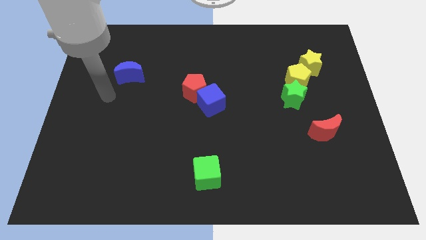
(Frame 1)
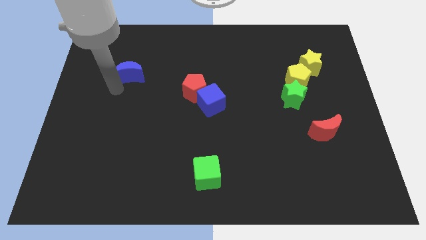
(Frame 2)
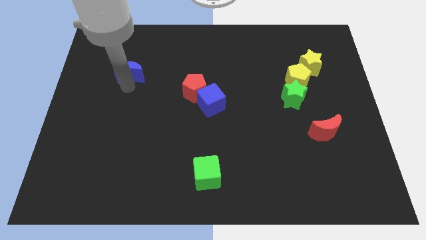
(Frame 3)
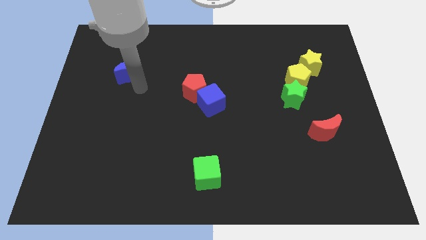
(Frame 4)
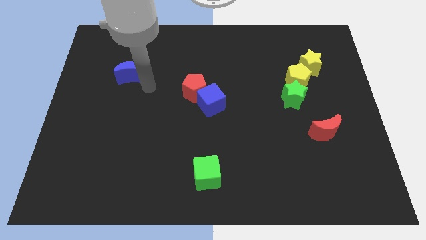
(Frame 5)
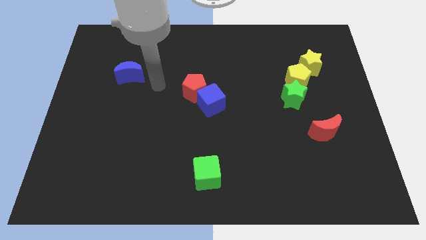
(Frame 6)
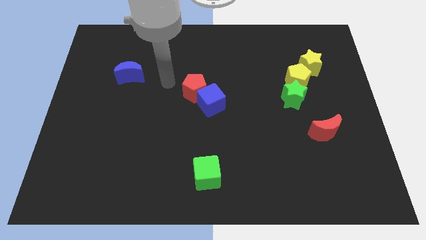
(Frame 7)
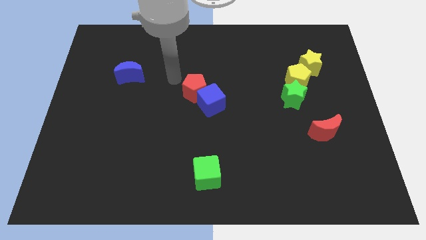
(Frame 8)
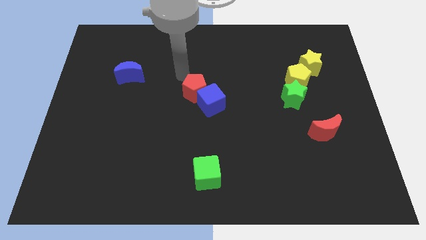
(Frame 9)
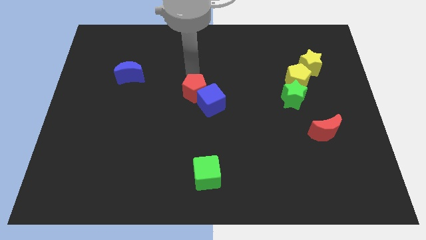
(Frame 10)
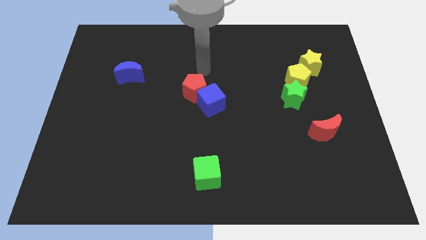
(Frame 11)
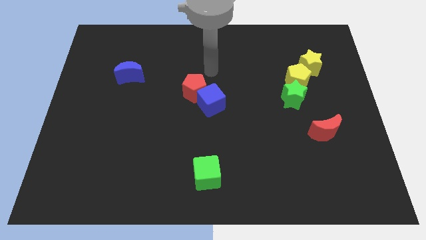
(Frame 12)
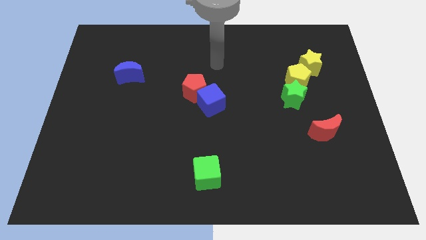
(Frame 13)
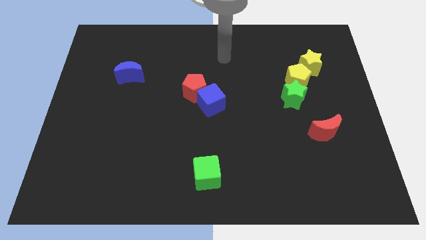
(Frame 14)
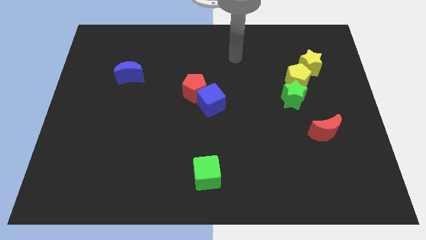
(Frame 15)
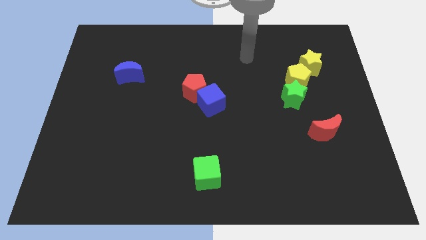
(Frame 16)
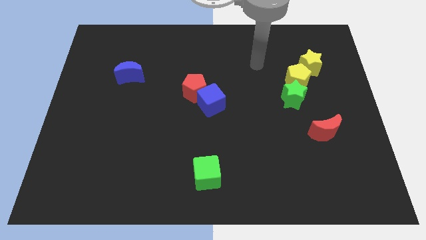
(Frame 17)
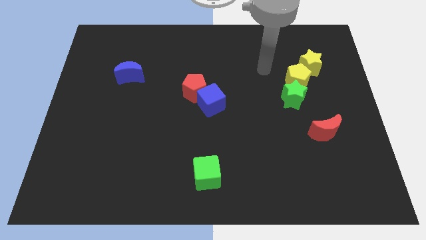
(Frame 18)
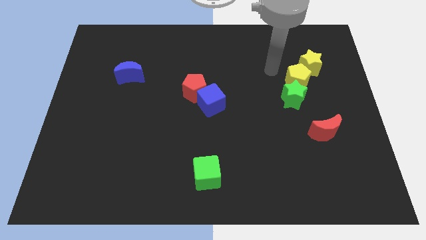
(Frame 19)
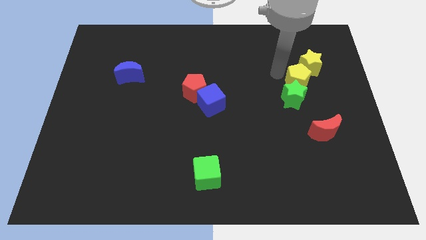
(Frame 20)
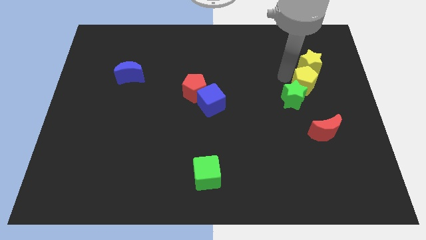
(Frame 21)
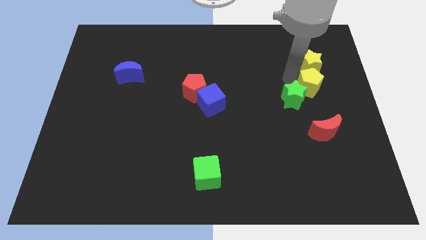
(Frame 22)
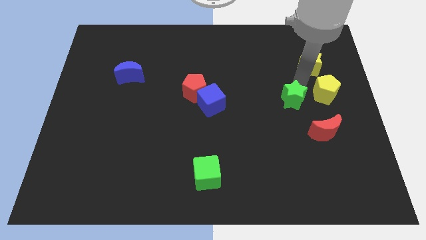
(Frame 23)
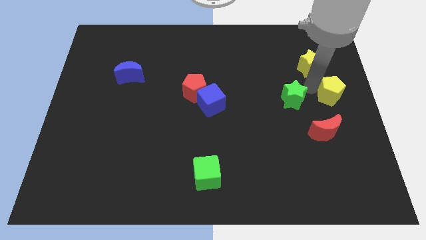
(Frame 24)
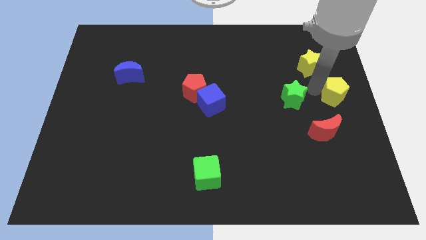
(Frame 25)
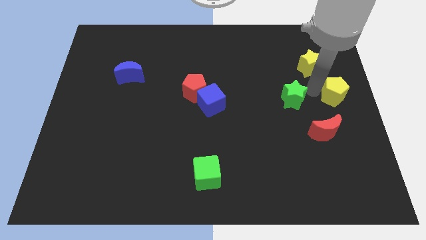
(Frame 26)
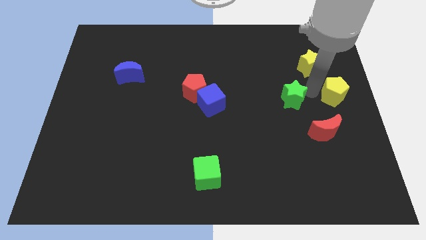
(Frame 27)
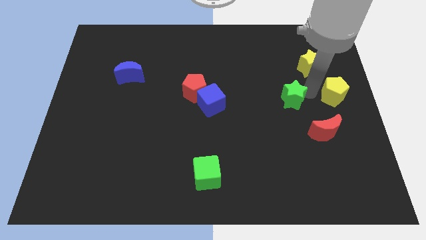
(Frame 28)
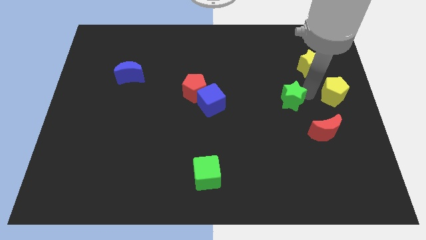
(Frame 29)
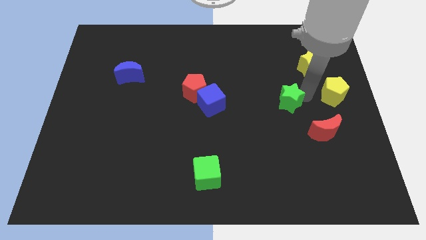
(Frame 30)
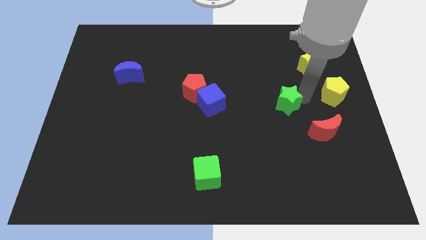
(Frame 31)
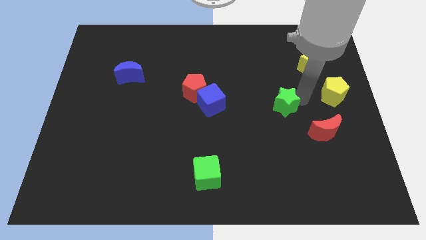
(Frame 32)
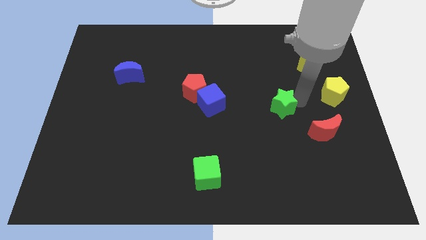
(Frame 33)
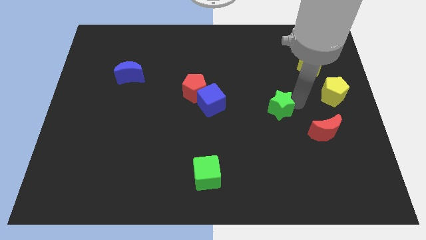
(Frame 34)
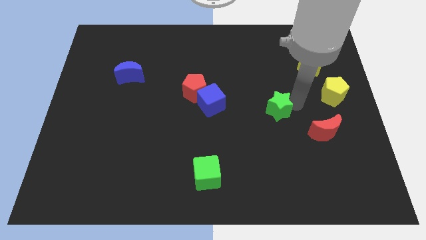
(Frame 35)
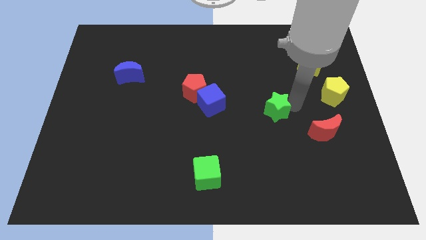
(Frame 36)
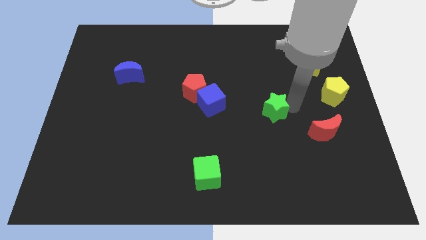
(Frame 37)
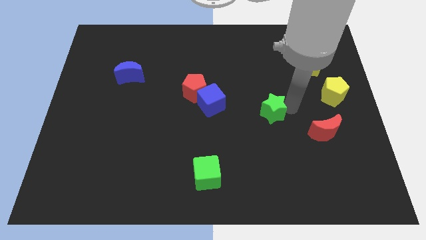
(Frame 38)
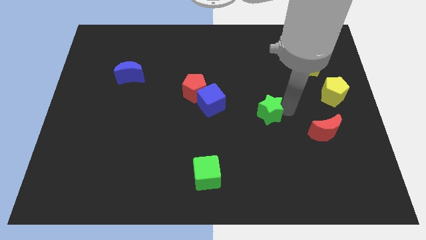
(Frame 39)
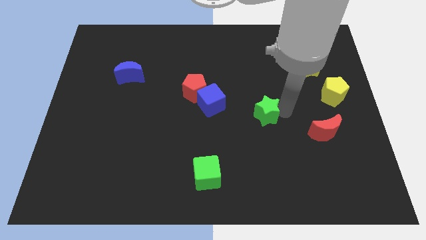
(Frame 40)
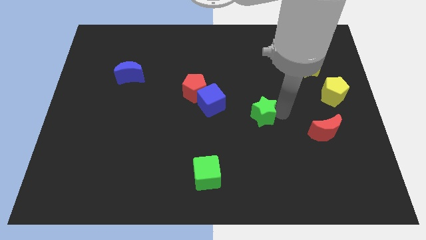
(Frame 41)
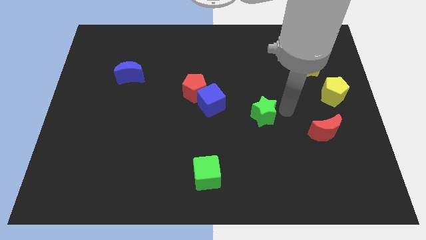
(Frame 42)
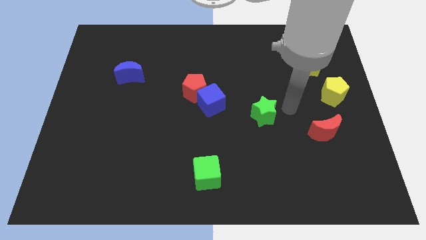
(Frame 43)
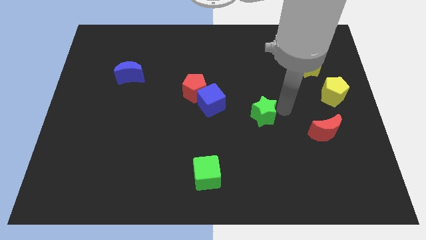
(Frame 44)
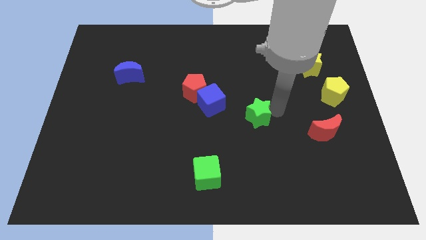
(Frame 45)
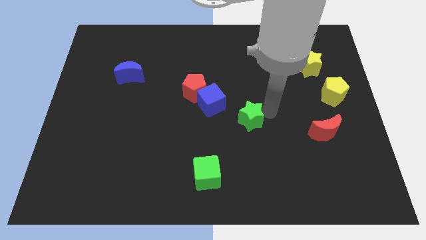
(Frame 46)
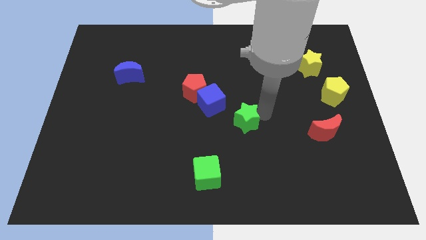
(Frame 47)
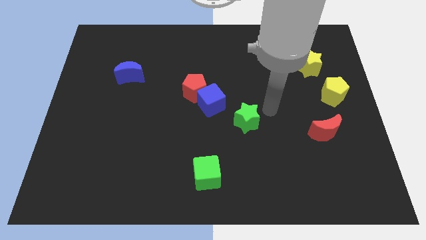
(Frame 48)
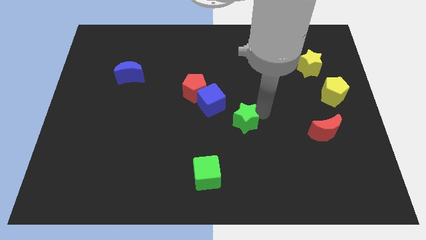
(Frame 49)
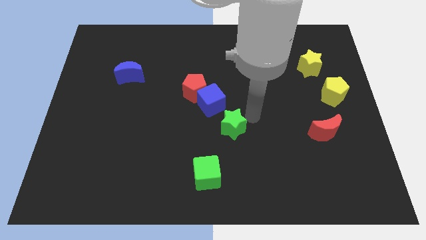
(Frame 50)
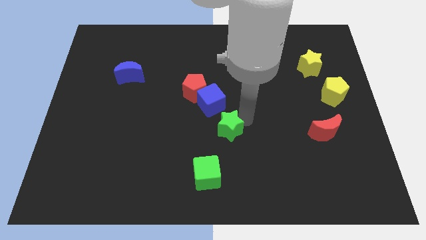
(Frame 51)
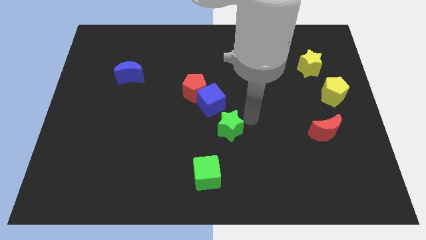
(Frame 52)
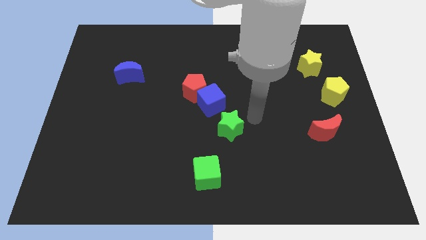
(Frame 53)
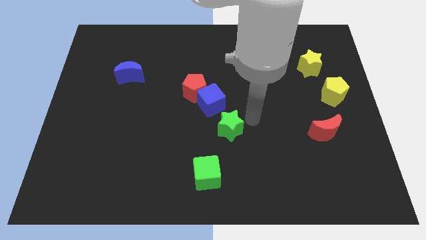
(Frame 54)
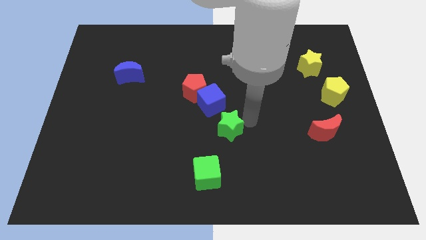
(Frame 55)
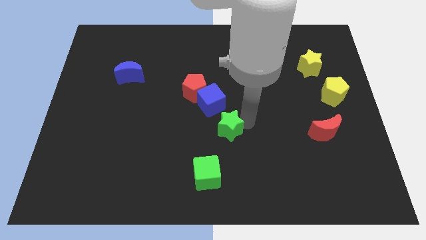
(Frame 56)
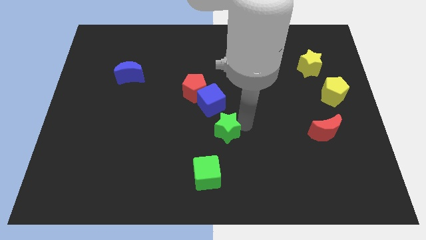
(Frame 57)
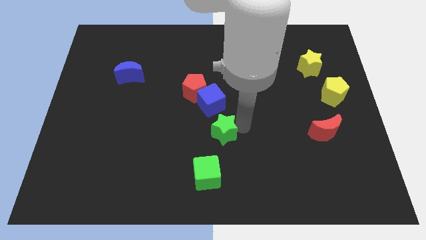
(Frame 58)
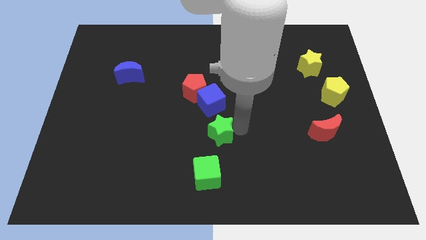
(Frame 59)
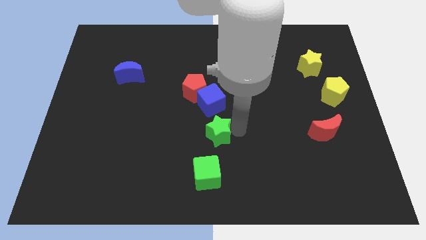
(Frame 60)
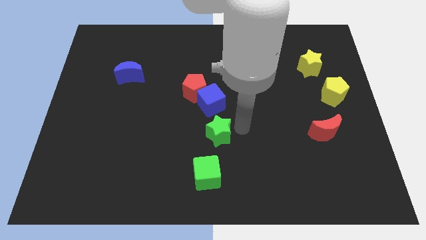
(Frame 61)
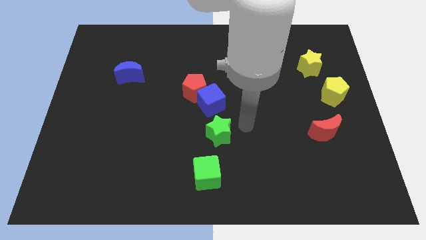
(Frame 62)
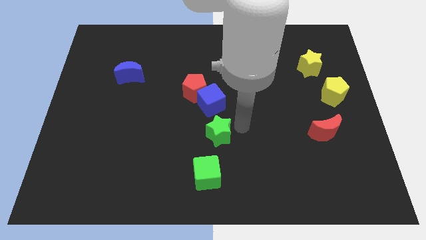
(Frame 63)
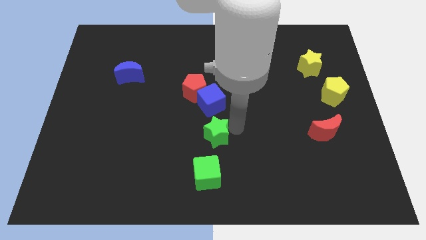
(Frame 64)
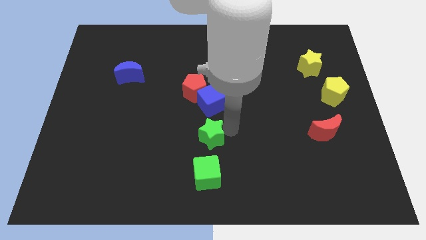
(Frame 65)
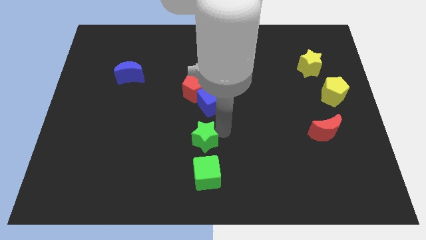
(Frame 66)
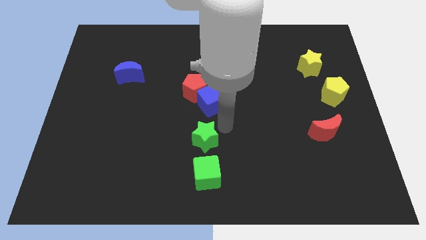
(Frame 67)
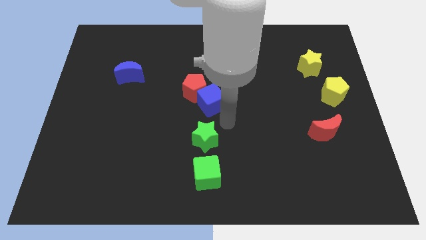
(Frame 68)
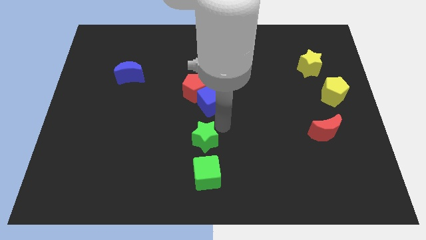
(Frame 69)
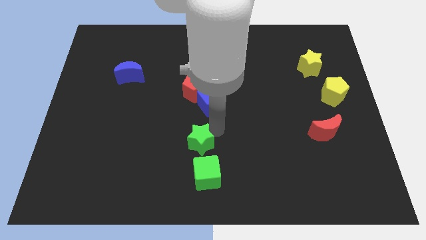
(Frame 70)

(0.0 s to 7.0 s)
put the green star to the top left of the green cube
